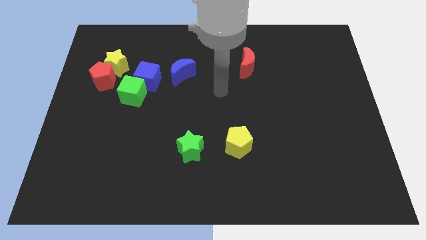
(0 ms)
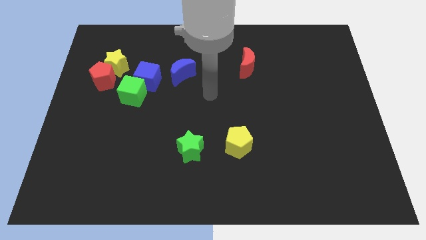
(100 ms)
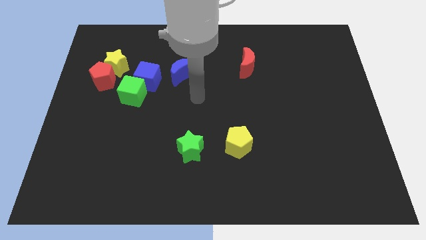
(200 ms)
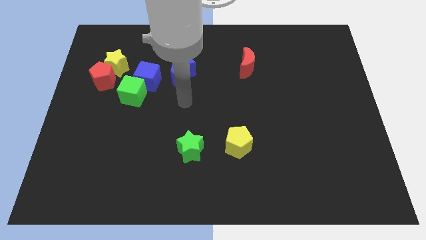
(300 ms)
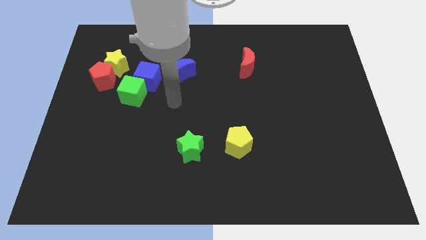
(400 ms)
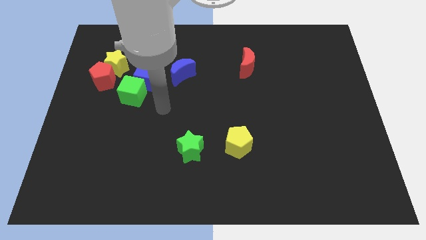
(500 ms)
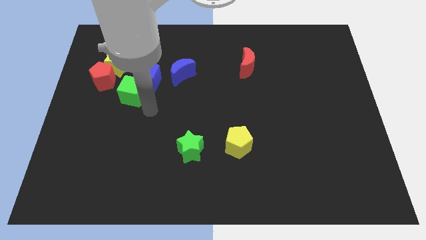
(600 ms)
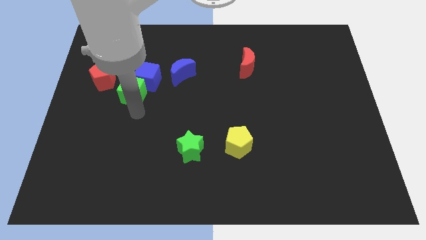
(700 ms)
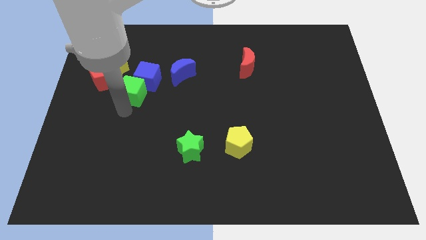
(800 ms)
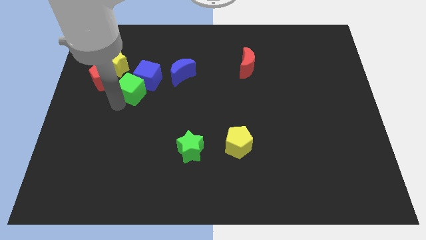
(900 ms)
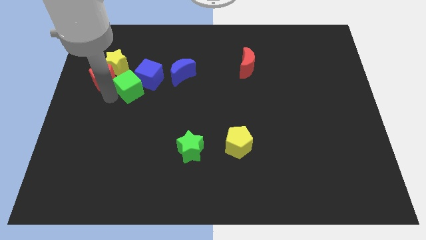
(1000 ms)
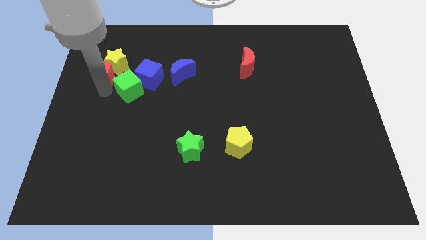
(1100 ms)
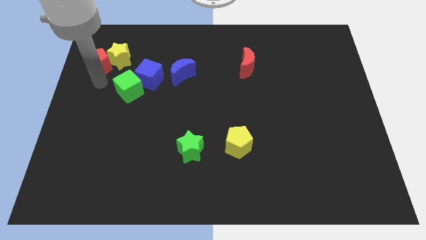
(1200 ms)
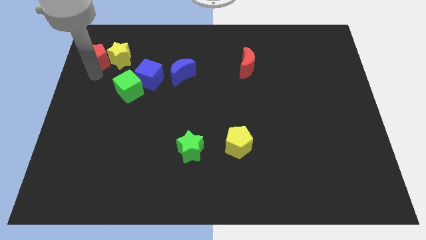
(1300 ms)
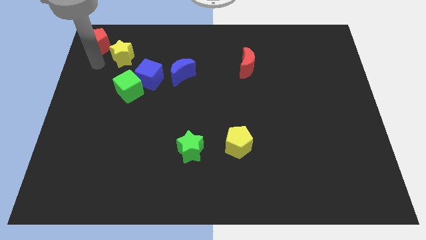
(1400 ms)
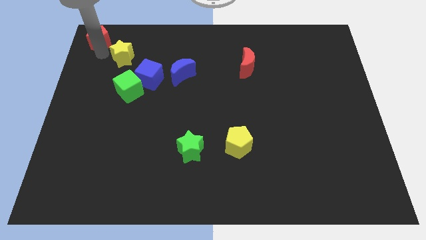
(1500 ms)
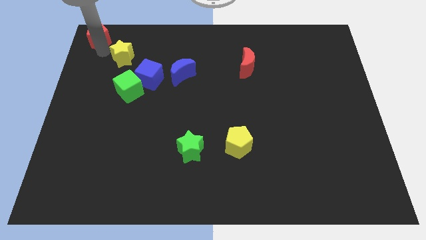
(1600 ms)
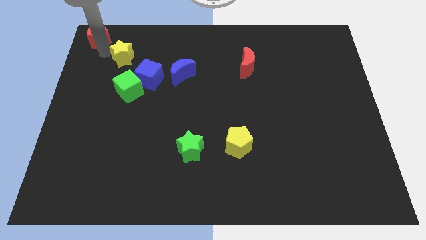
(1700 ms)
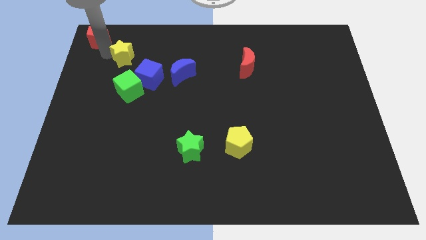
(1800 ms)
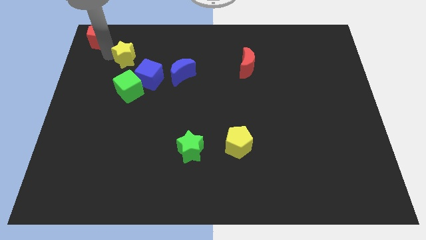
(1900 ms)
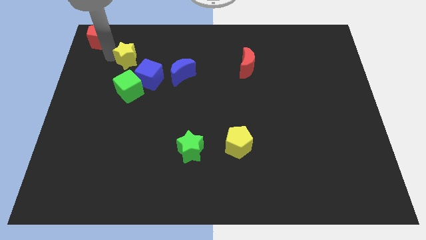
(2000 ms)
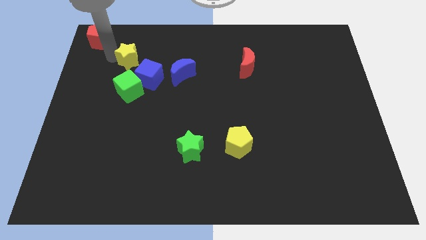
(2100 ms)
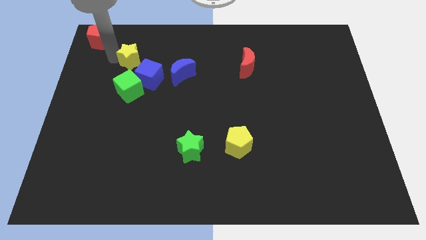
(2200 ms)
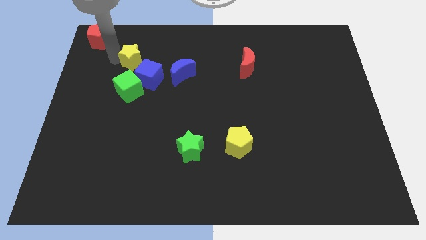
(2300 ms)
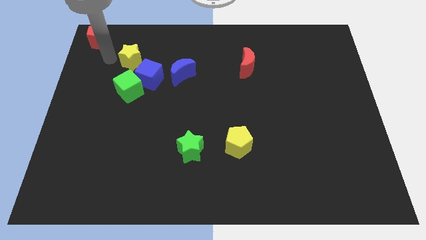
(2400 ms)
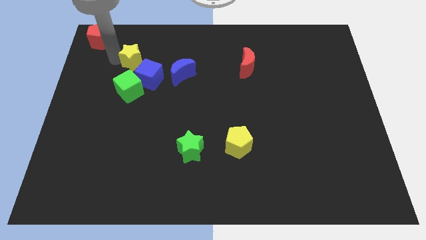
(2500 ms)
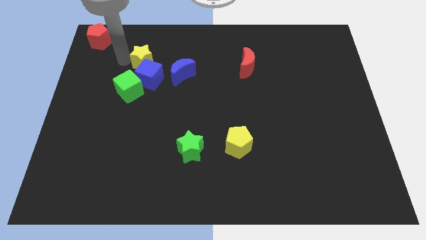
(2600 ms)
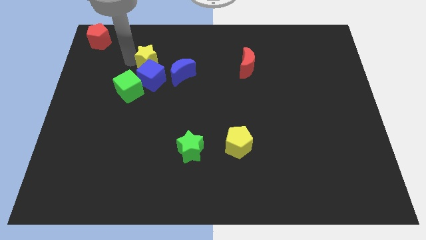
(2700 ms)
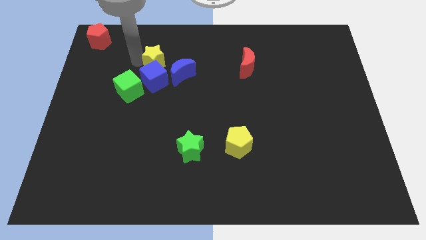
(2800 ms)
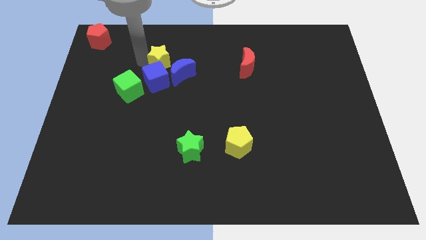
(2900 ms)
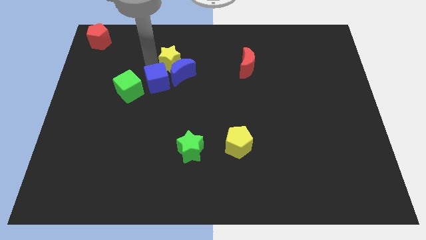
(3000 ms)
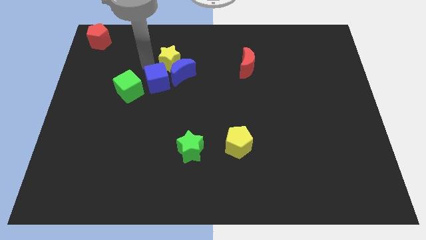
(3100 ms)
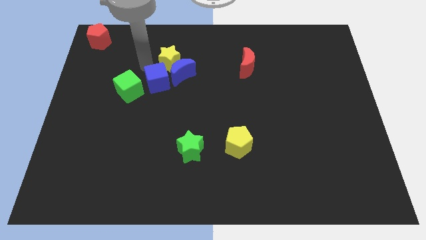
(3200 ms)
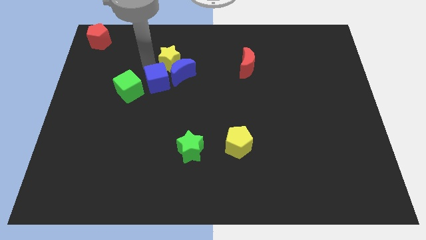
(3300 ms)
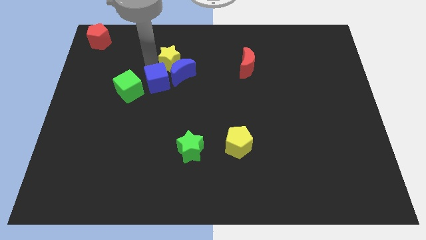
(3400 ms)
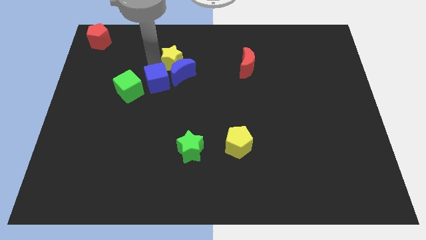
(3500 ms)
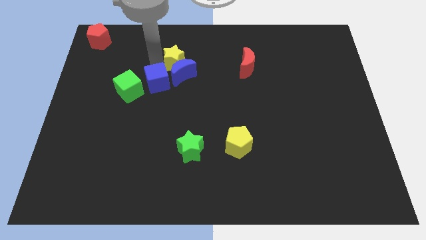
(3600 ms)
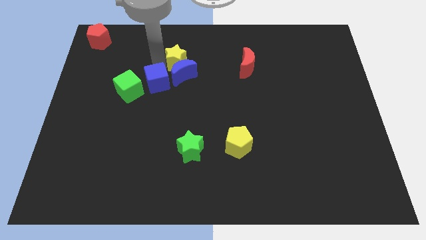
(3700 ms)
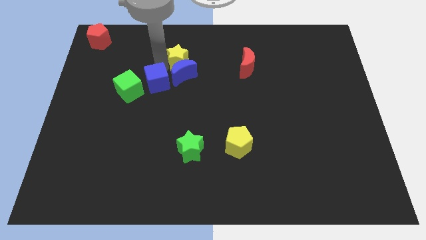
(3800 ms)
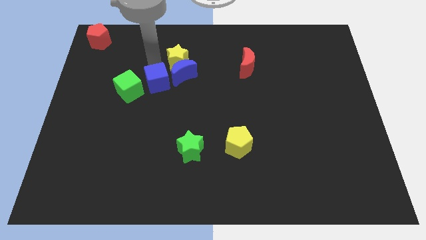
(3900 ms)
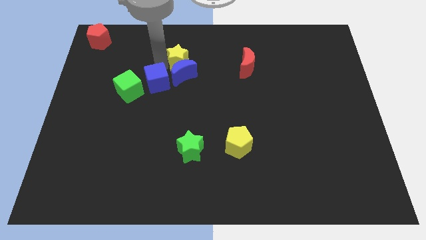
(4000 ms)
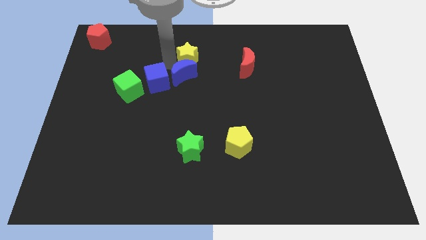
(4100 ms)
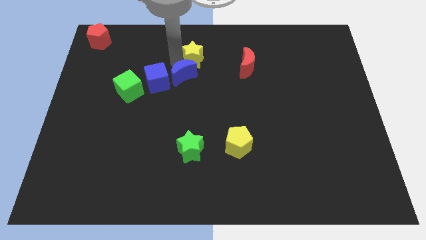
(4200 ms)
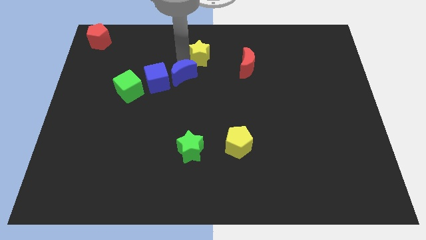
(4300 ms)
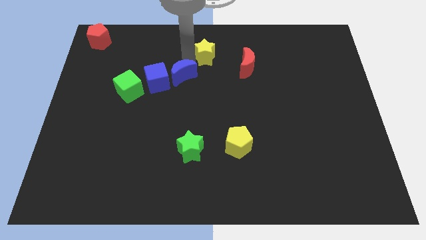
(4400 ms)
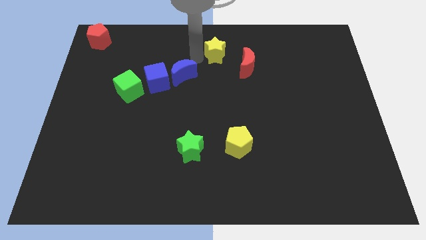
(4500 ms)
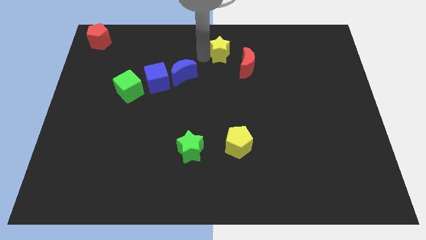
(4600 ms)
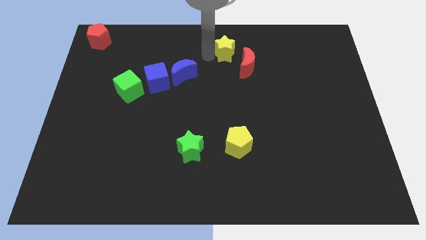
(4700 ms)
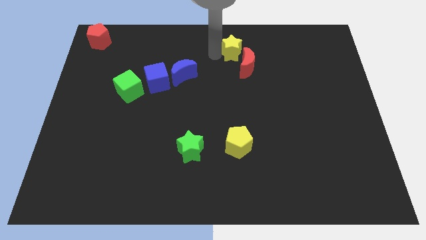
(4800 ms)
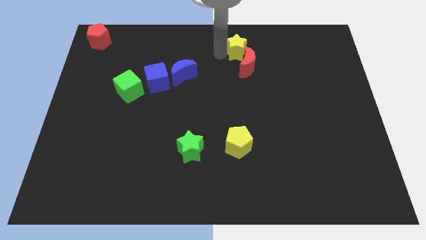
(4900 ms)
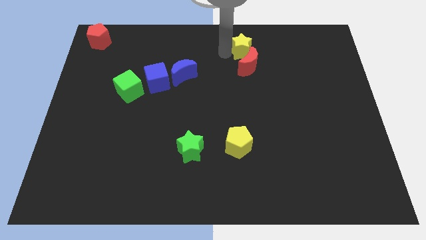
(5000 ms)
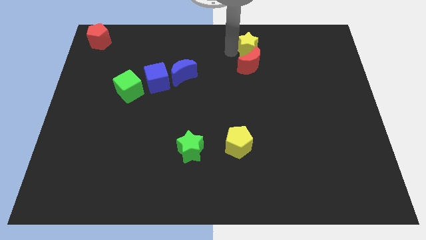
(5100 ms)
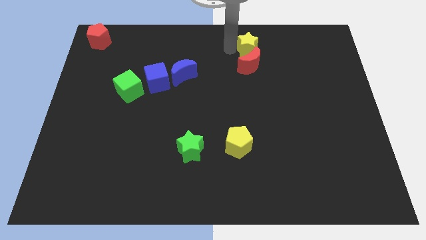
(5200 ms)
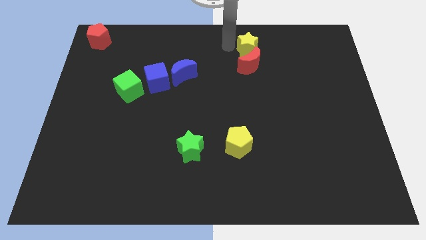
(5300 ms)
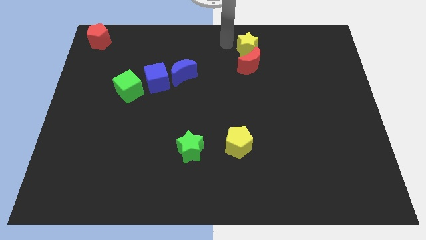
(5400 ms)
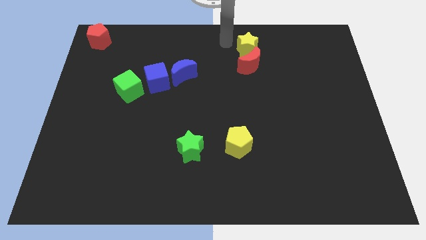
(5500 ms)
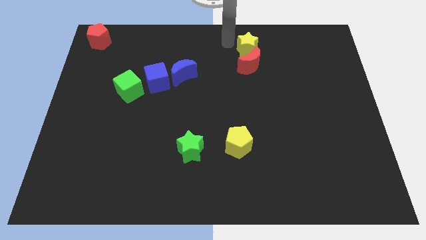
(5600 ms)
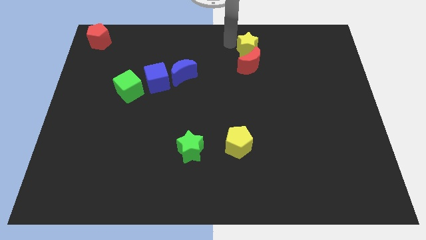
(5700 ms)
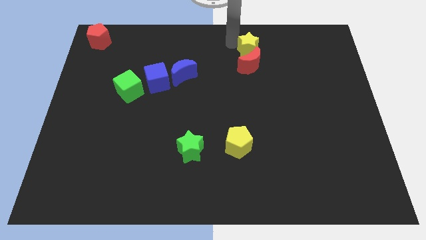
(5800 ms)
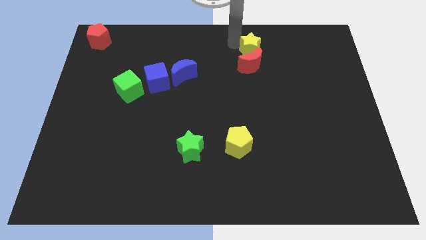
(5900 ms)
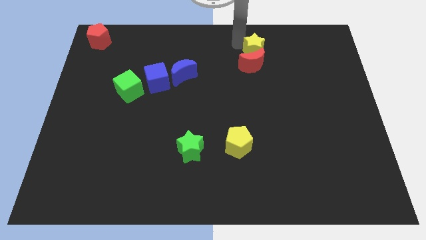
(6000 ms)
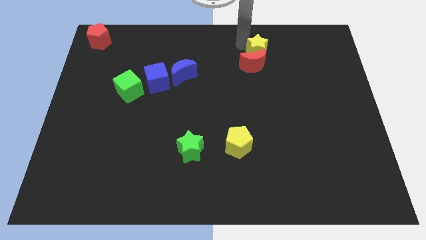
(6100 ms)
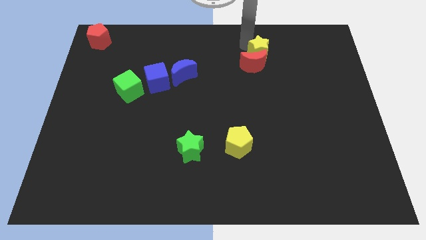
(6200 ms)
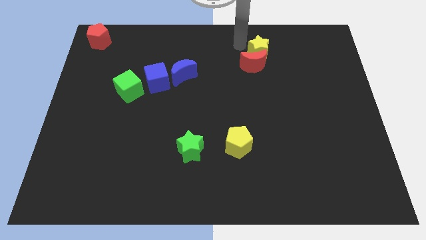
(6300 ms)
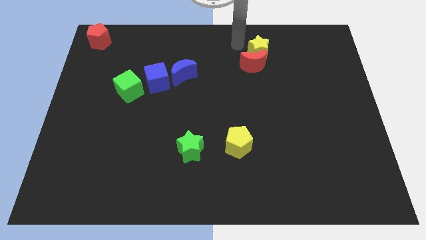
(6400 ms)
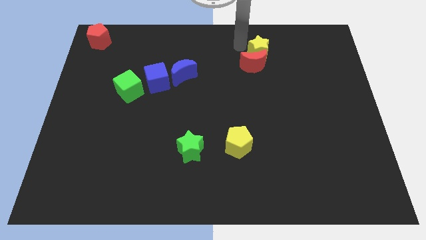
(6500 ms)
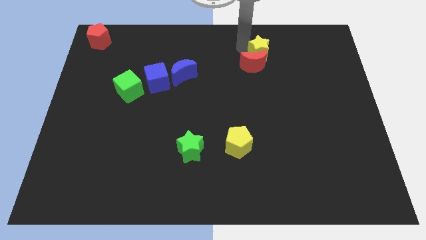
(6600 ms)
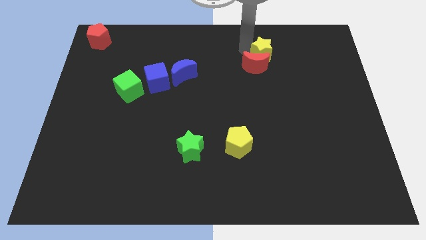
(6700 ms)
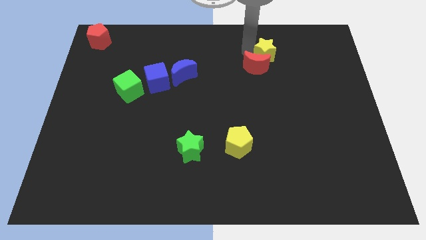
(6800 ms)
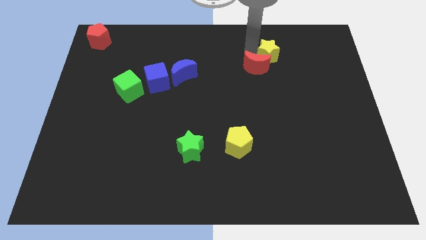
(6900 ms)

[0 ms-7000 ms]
put the yellow star to the right side of the red moon

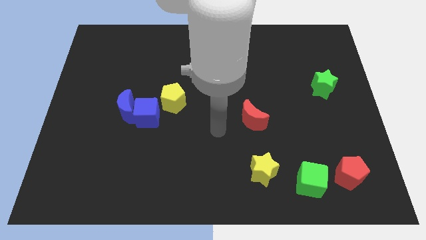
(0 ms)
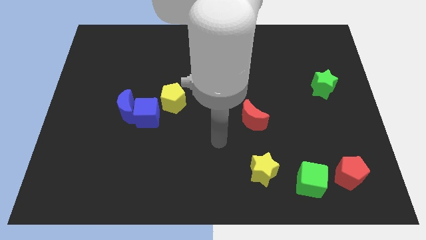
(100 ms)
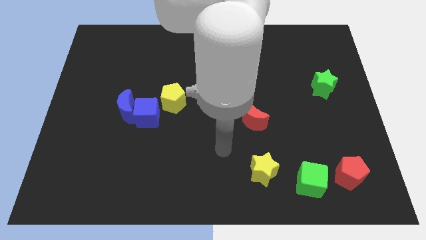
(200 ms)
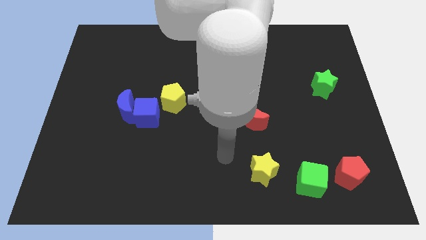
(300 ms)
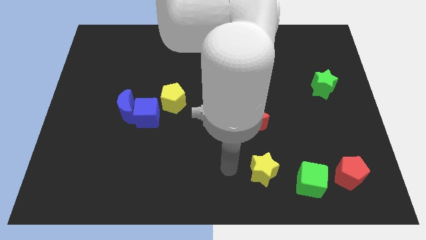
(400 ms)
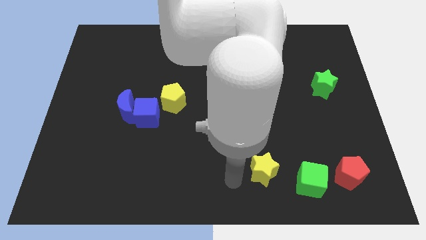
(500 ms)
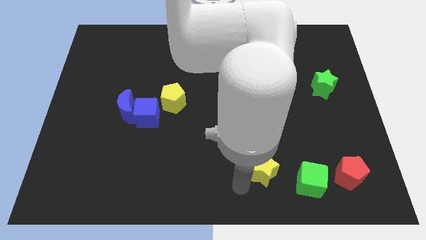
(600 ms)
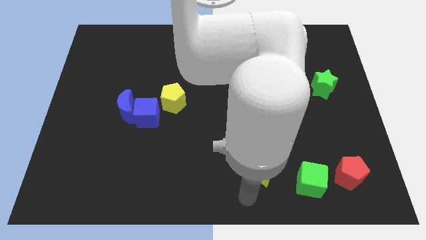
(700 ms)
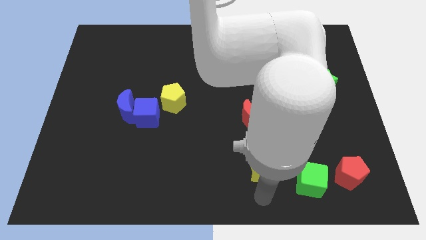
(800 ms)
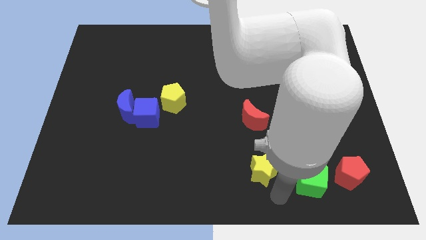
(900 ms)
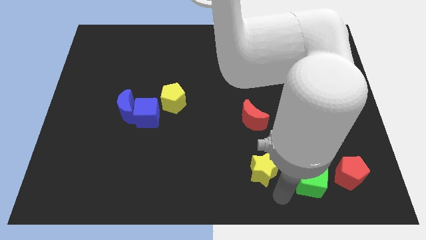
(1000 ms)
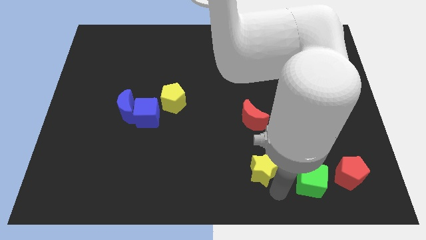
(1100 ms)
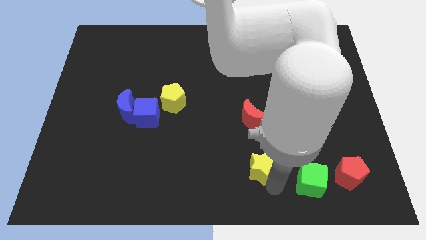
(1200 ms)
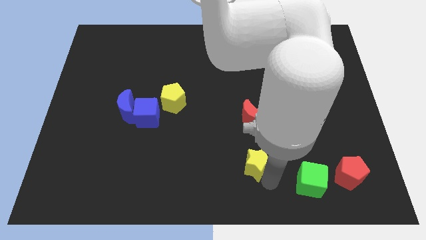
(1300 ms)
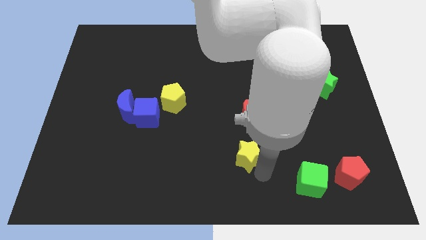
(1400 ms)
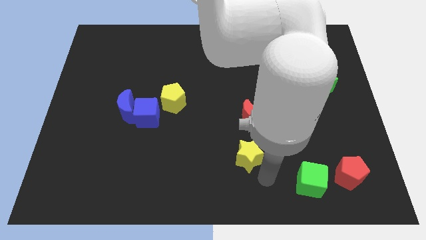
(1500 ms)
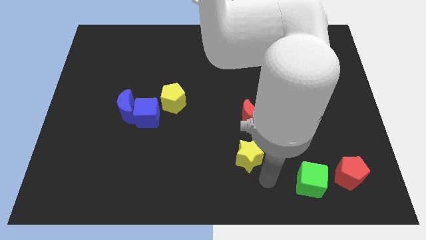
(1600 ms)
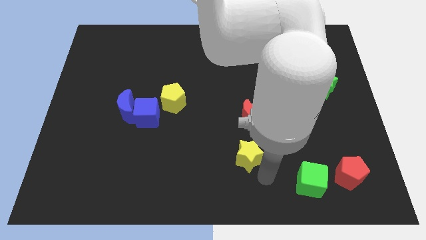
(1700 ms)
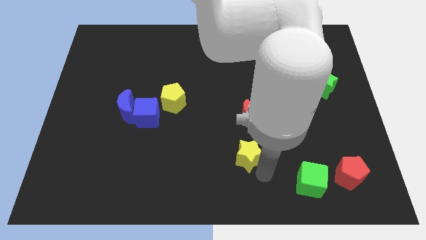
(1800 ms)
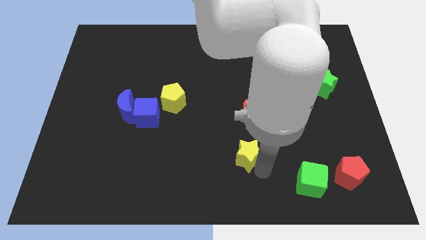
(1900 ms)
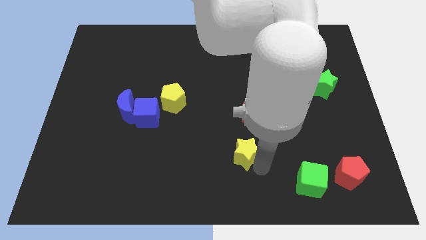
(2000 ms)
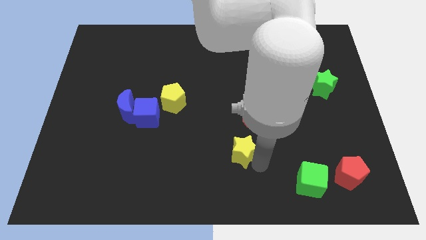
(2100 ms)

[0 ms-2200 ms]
move the yellow star diagonally down and to the left of the red moon
